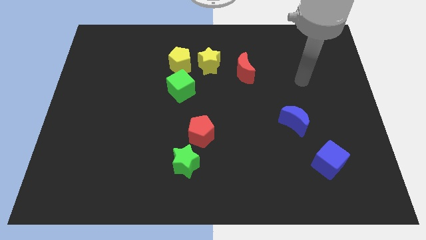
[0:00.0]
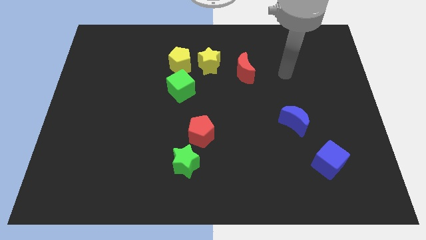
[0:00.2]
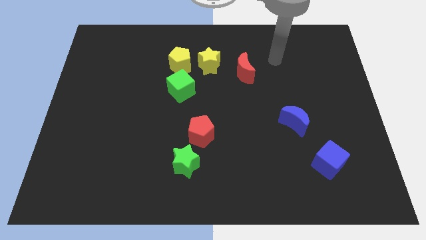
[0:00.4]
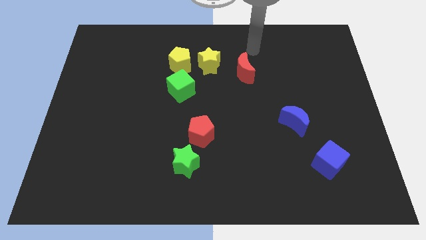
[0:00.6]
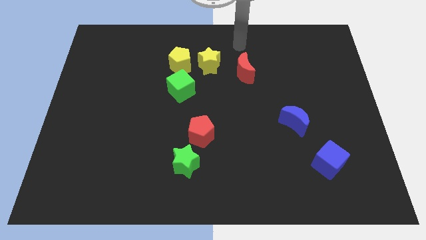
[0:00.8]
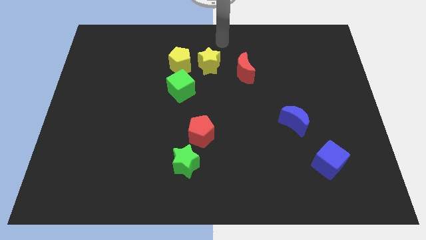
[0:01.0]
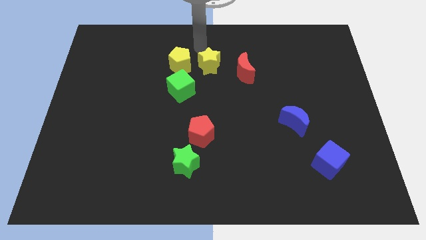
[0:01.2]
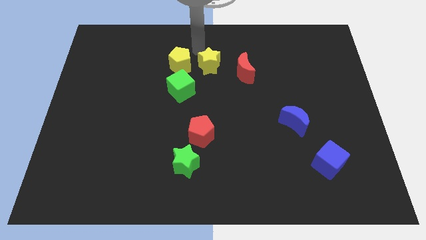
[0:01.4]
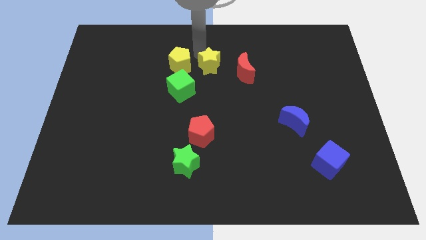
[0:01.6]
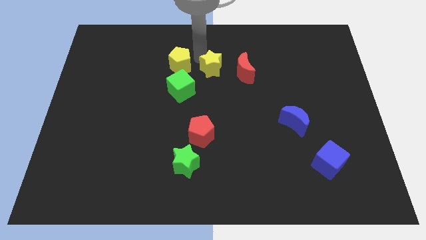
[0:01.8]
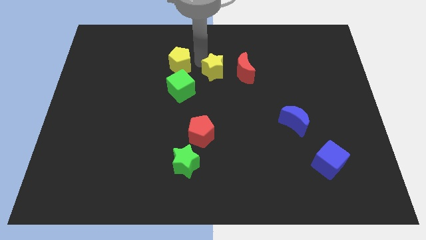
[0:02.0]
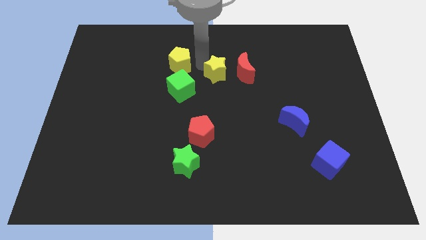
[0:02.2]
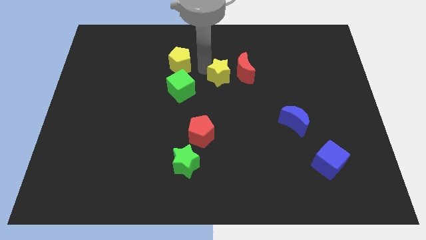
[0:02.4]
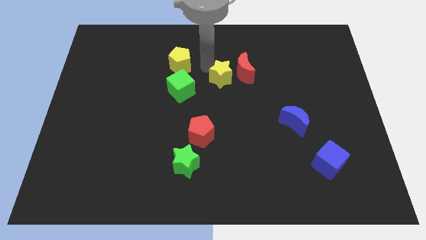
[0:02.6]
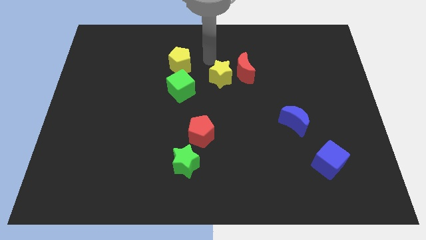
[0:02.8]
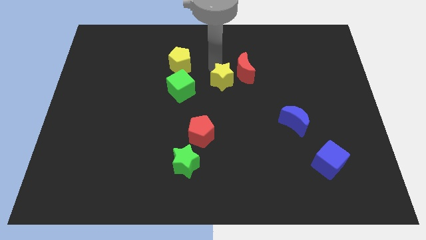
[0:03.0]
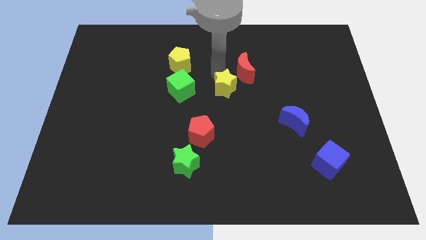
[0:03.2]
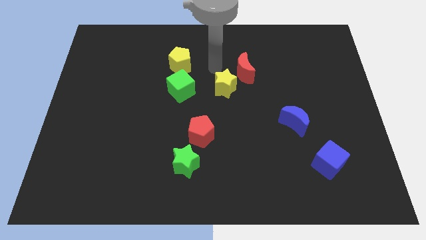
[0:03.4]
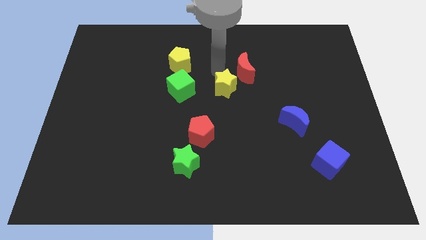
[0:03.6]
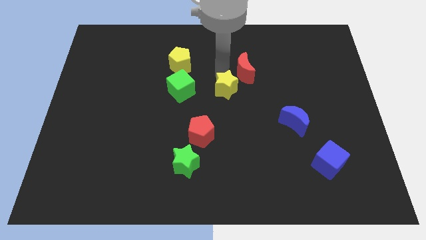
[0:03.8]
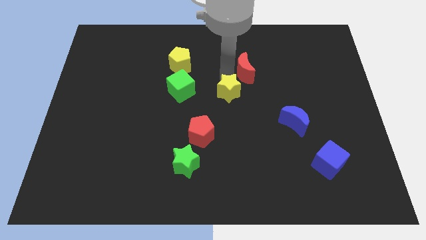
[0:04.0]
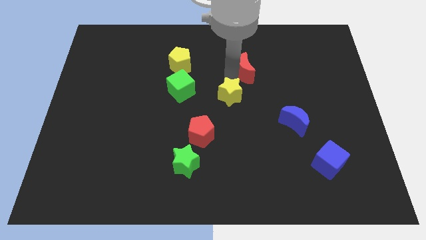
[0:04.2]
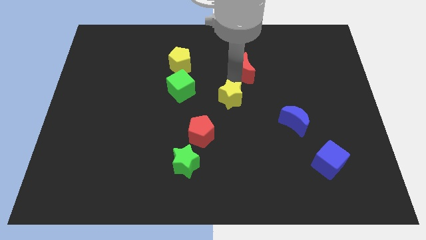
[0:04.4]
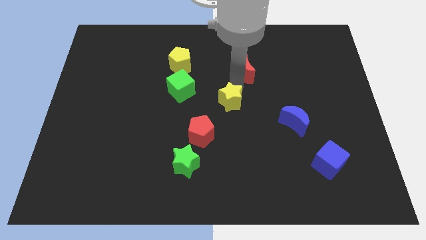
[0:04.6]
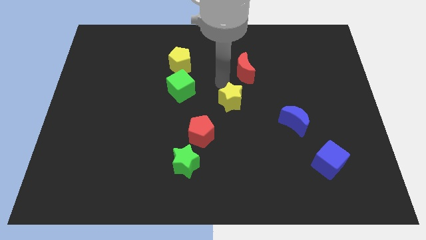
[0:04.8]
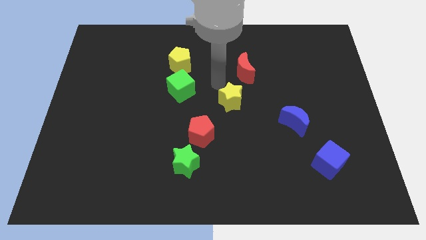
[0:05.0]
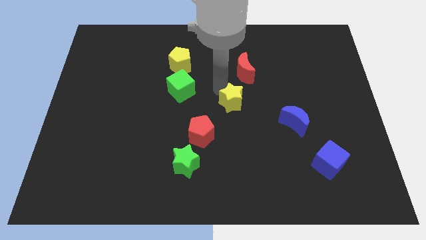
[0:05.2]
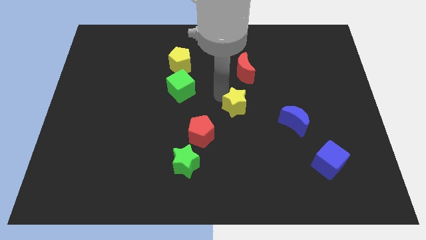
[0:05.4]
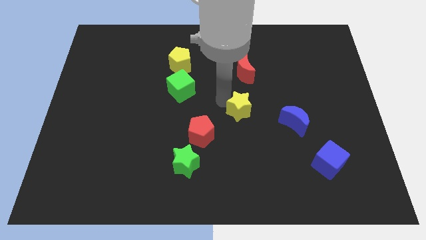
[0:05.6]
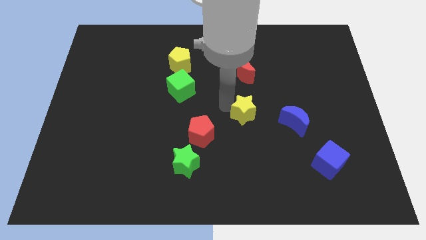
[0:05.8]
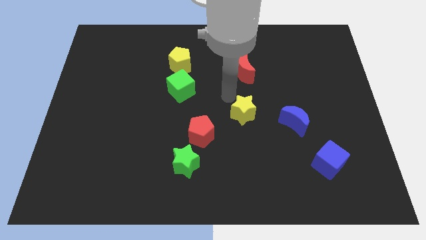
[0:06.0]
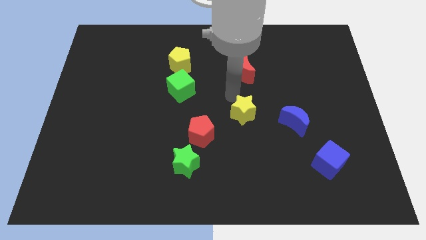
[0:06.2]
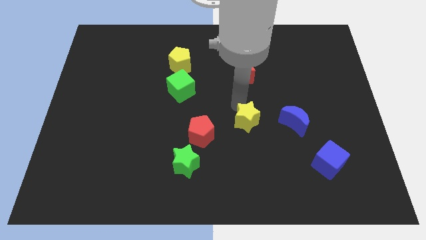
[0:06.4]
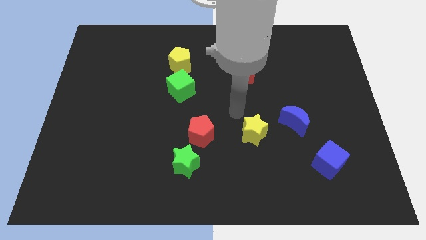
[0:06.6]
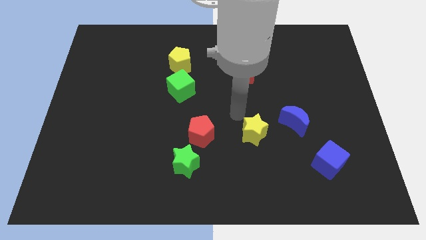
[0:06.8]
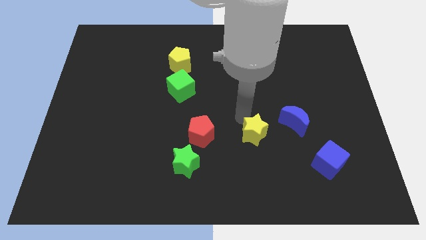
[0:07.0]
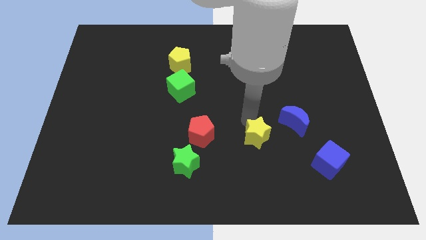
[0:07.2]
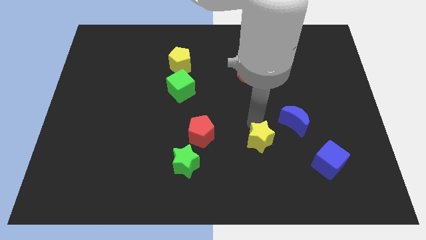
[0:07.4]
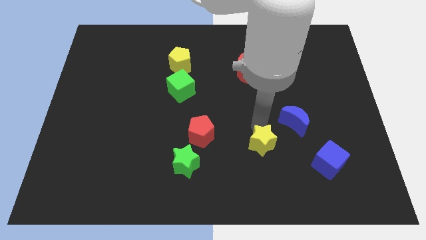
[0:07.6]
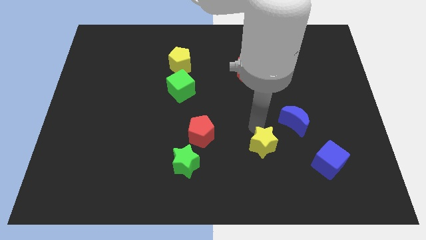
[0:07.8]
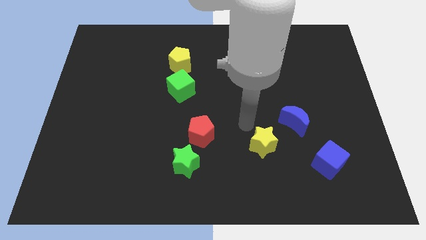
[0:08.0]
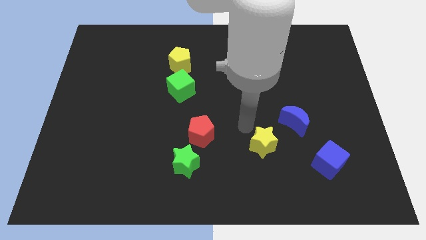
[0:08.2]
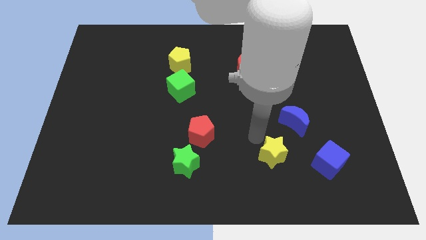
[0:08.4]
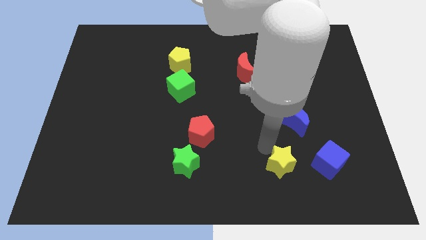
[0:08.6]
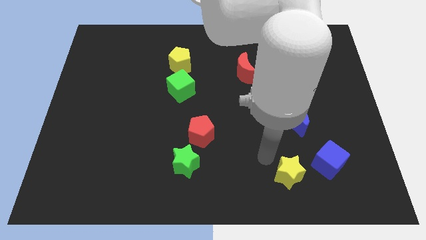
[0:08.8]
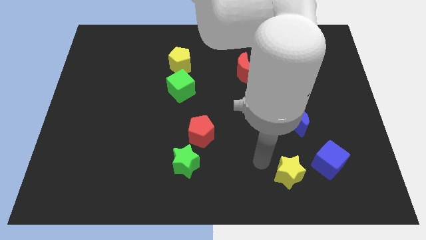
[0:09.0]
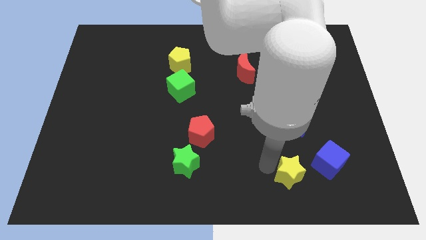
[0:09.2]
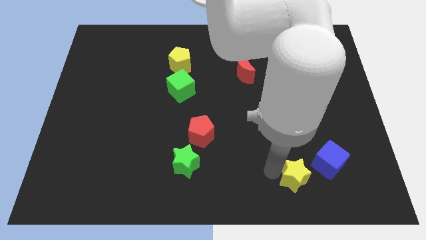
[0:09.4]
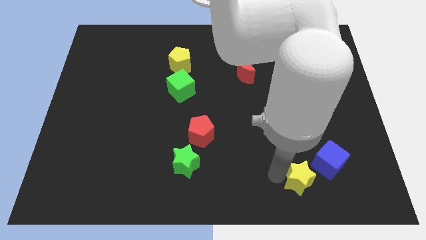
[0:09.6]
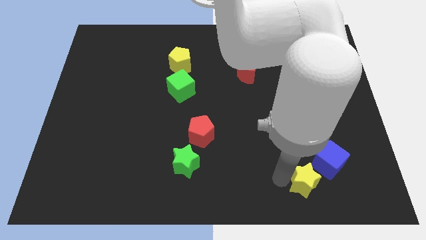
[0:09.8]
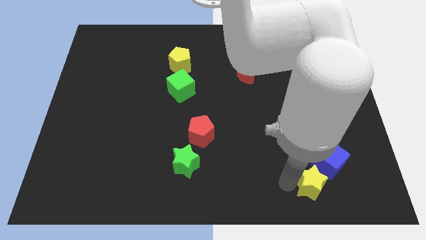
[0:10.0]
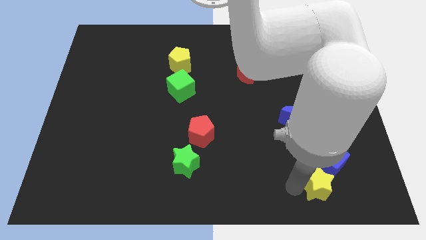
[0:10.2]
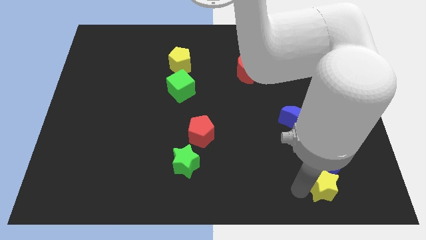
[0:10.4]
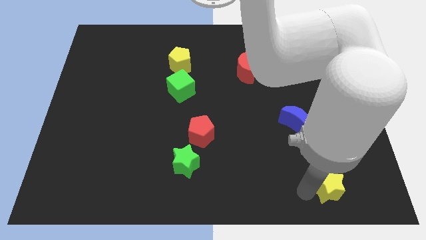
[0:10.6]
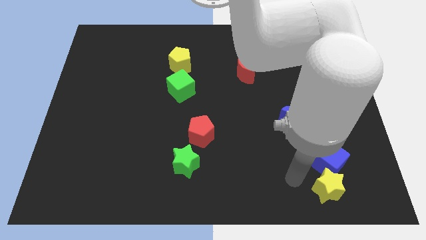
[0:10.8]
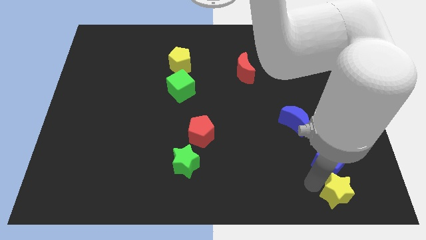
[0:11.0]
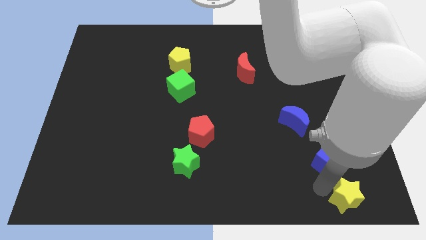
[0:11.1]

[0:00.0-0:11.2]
push the yellow star to the bottom right

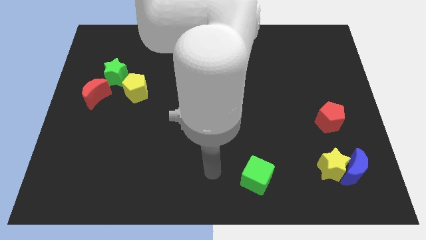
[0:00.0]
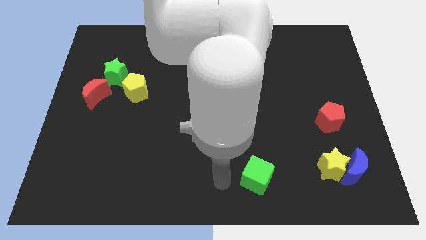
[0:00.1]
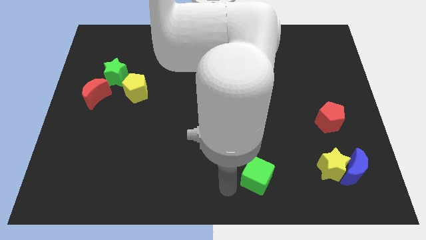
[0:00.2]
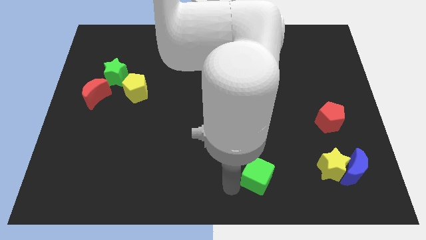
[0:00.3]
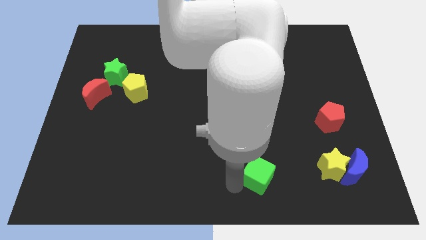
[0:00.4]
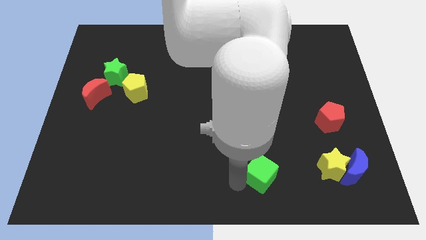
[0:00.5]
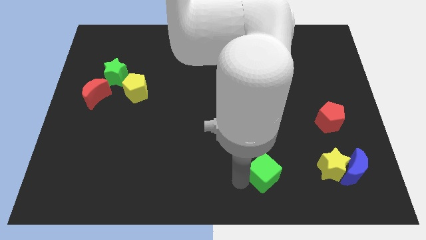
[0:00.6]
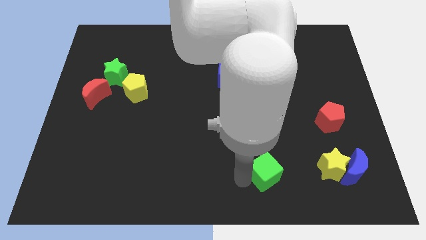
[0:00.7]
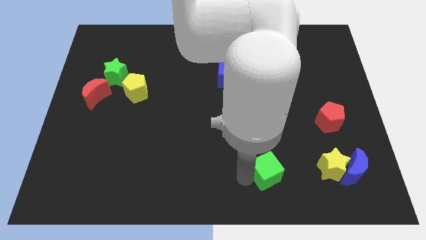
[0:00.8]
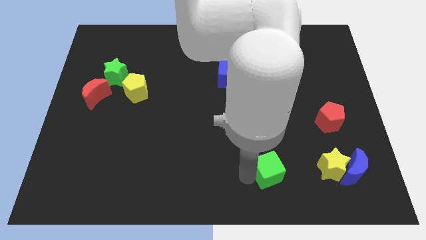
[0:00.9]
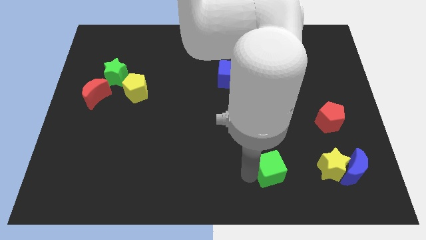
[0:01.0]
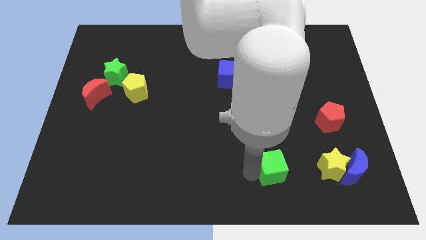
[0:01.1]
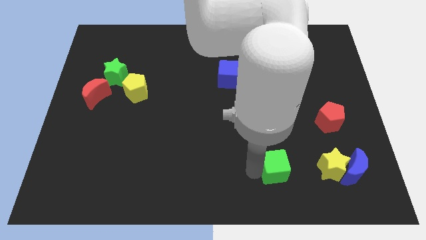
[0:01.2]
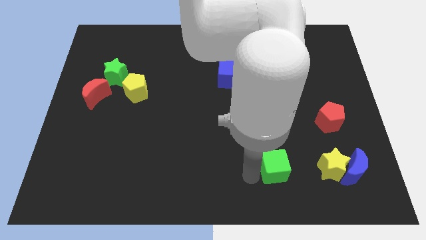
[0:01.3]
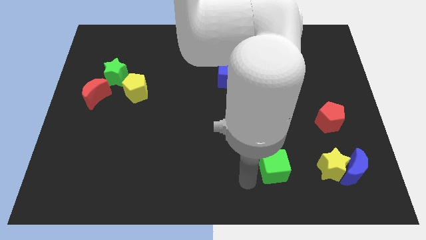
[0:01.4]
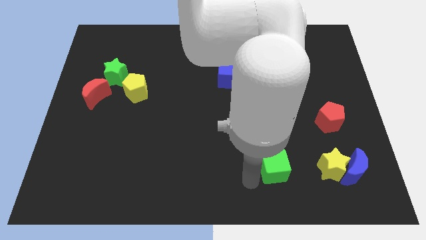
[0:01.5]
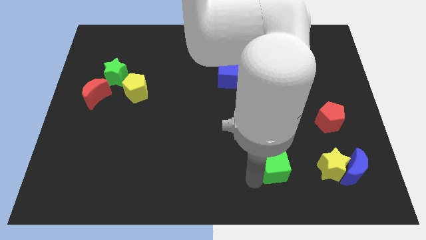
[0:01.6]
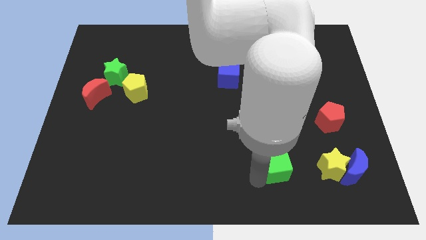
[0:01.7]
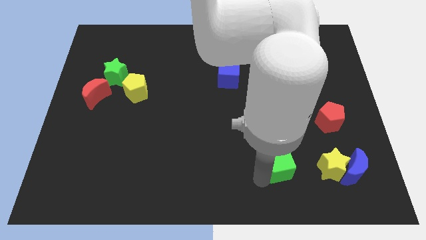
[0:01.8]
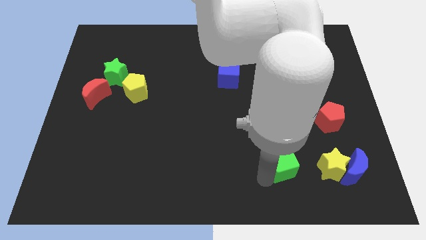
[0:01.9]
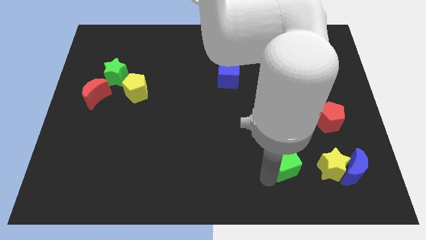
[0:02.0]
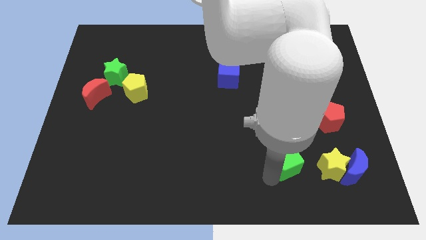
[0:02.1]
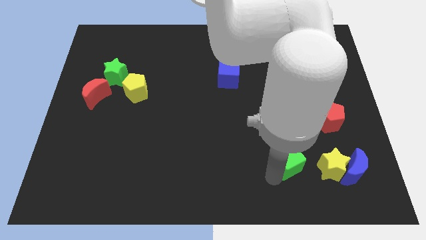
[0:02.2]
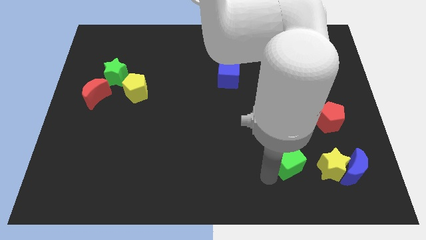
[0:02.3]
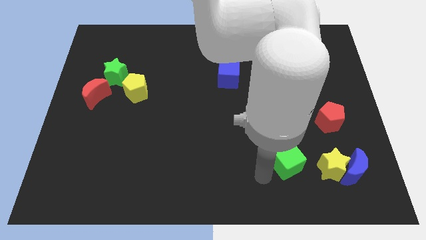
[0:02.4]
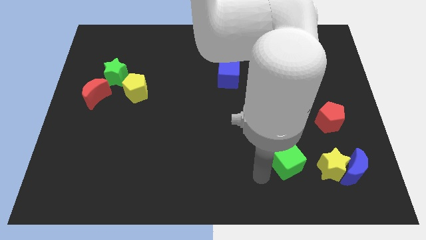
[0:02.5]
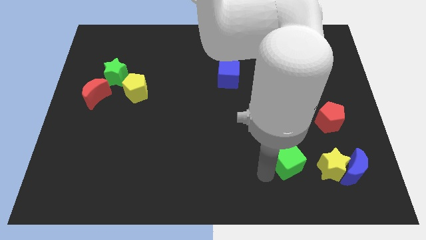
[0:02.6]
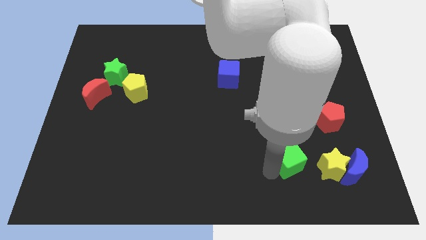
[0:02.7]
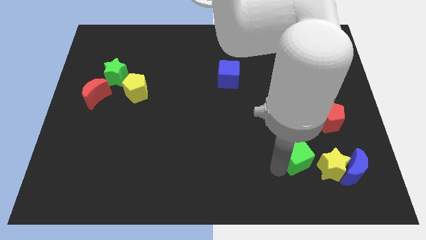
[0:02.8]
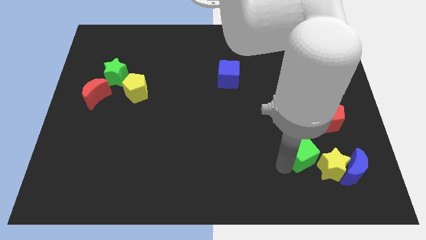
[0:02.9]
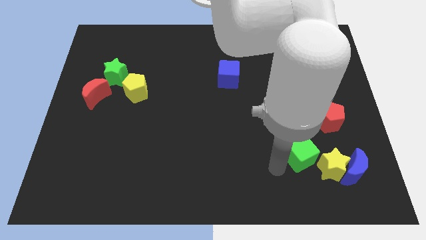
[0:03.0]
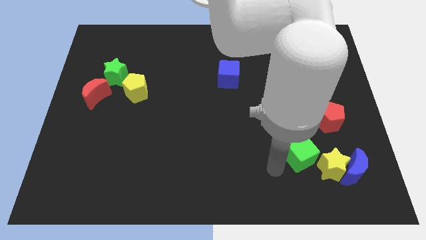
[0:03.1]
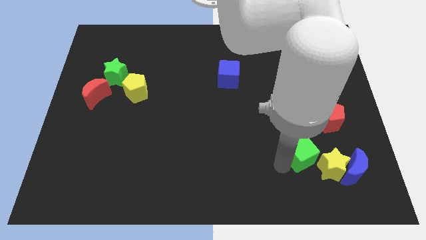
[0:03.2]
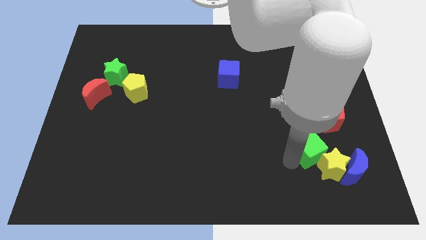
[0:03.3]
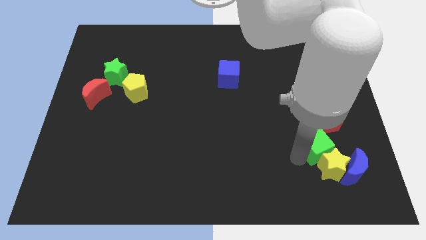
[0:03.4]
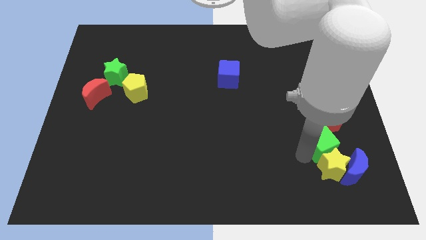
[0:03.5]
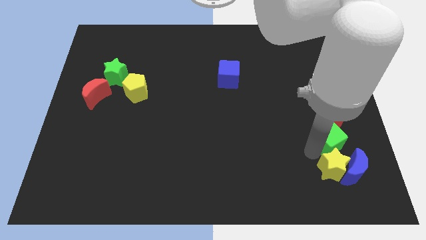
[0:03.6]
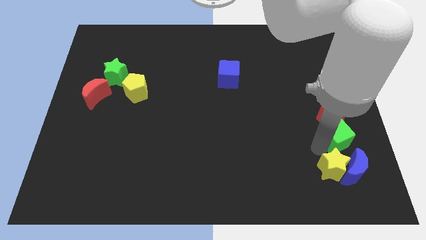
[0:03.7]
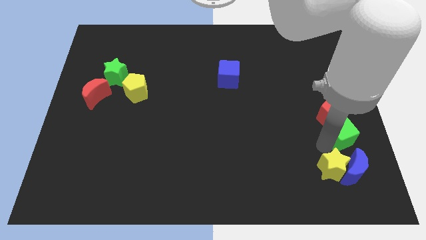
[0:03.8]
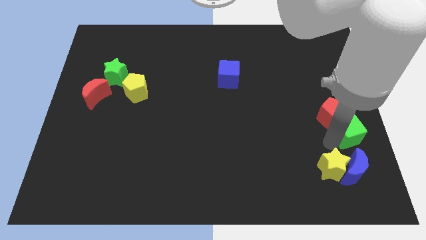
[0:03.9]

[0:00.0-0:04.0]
slide the green cube to the right side
